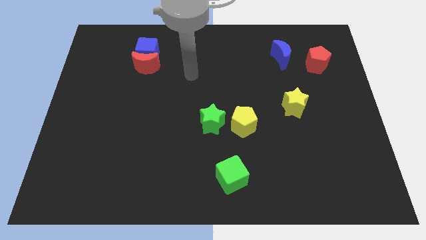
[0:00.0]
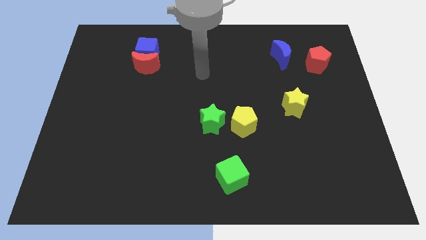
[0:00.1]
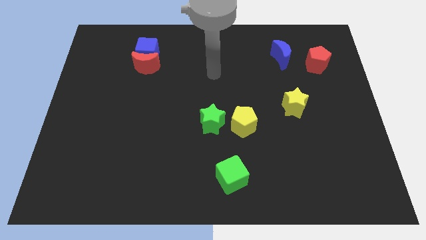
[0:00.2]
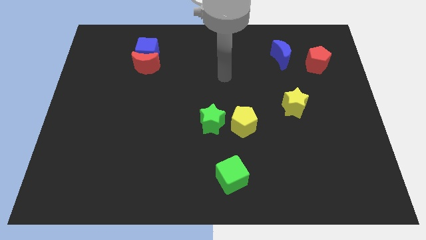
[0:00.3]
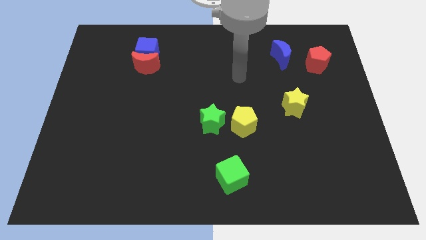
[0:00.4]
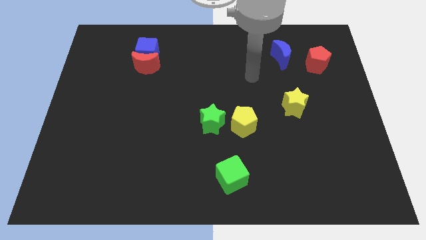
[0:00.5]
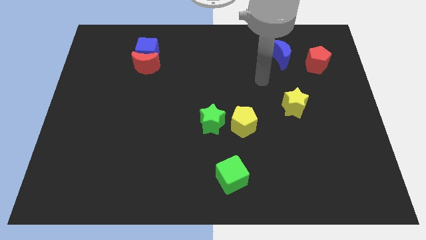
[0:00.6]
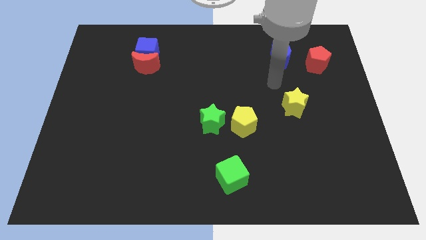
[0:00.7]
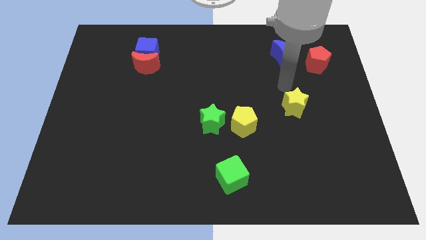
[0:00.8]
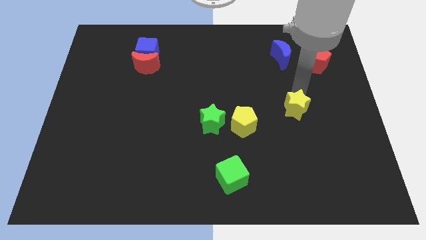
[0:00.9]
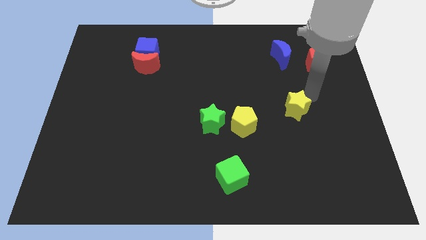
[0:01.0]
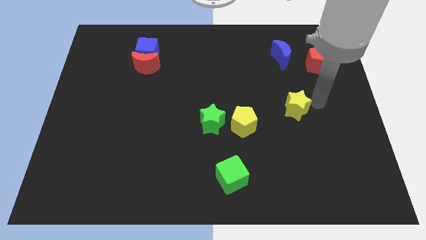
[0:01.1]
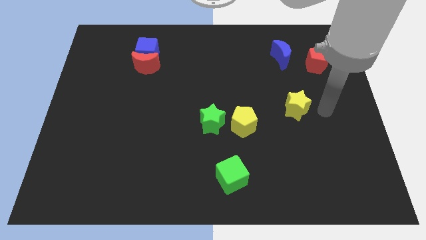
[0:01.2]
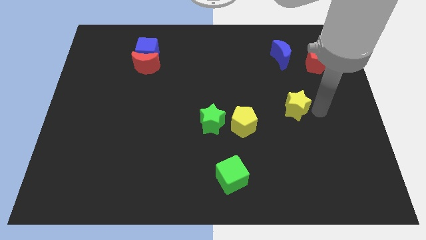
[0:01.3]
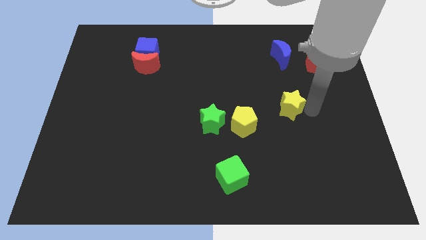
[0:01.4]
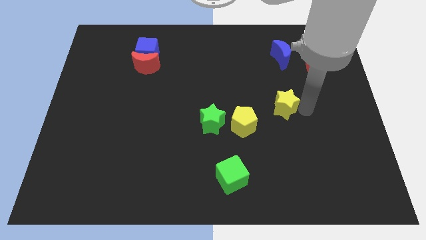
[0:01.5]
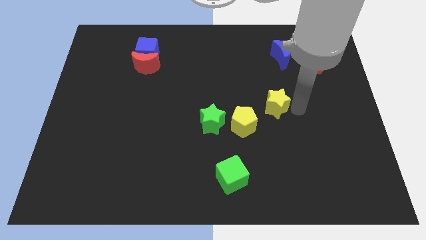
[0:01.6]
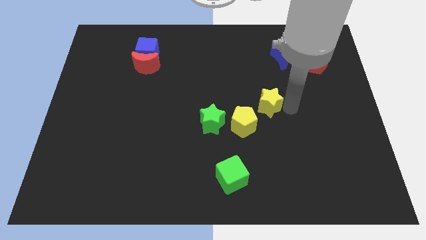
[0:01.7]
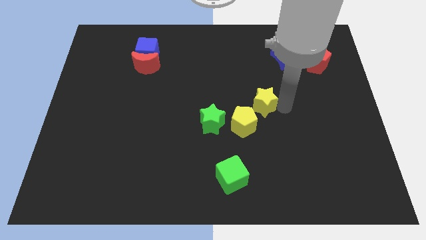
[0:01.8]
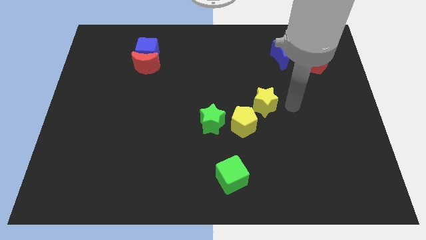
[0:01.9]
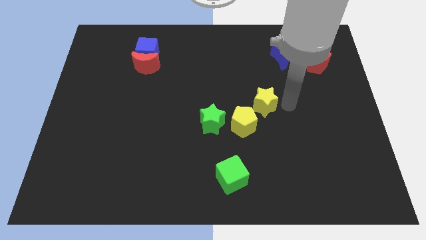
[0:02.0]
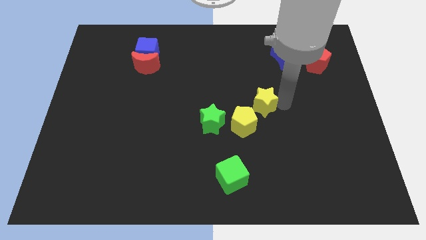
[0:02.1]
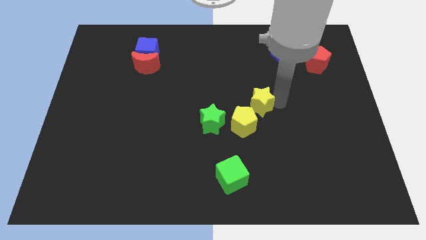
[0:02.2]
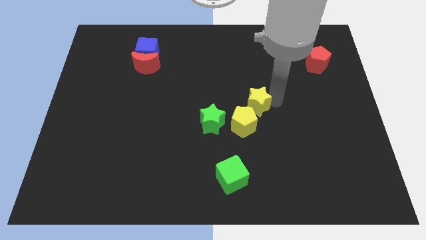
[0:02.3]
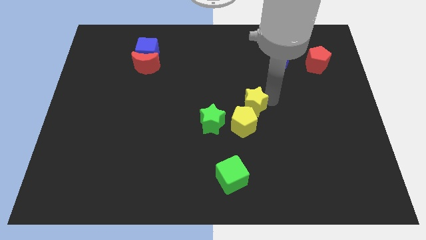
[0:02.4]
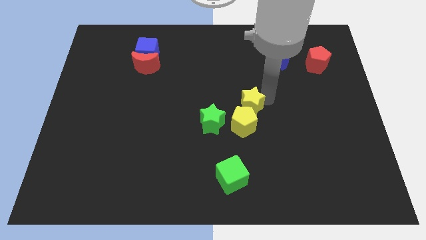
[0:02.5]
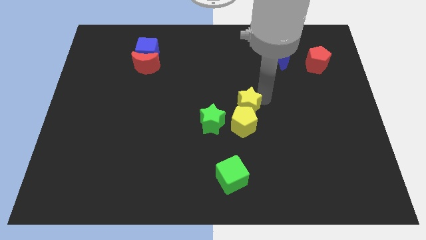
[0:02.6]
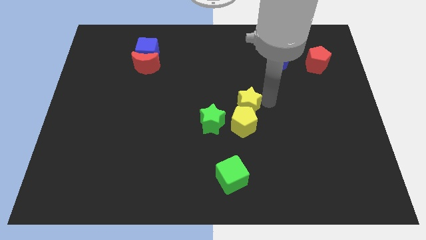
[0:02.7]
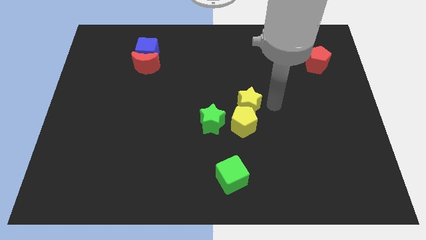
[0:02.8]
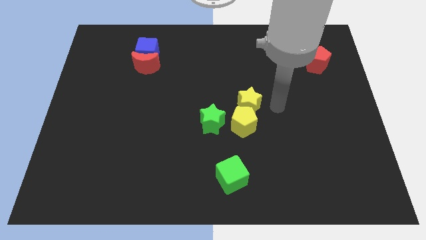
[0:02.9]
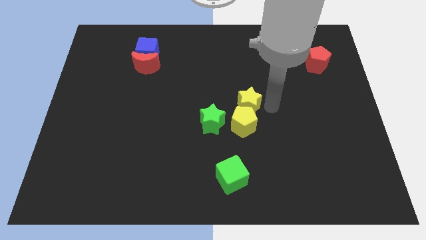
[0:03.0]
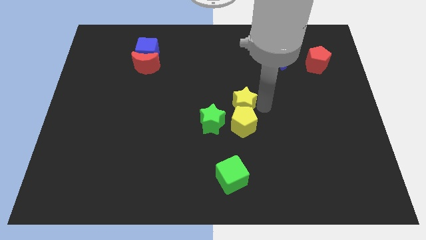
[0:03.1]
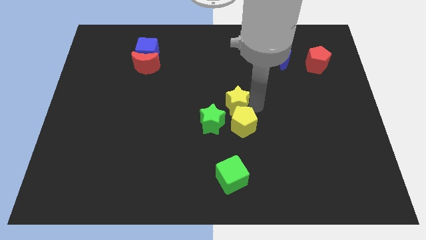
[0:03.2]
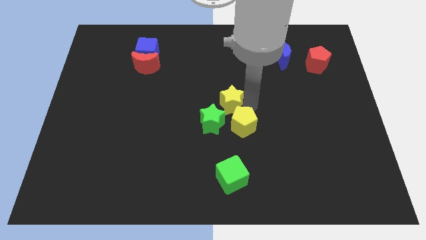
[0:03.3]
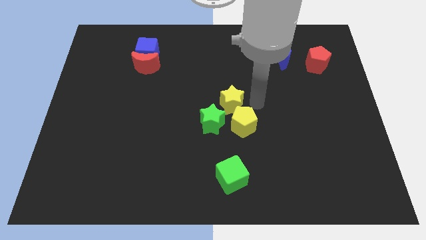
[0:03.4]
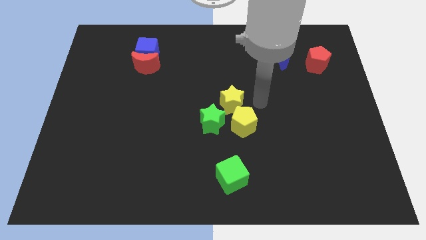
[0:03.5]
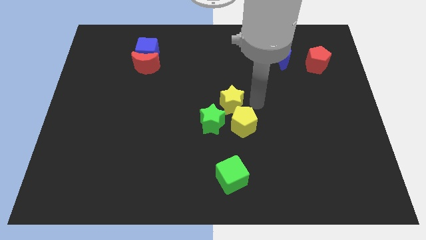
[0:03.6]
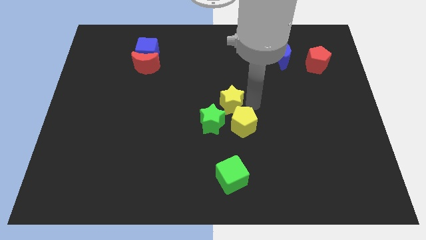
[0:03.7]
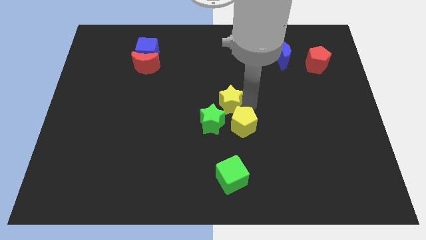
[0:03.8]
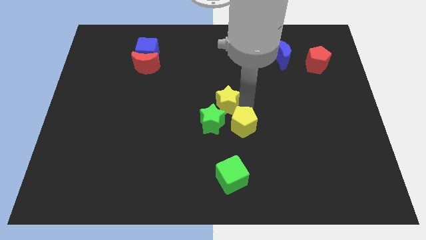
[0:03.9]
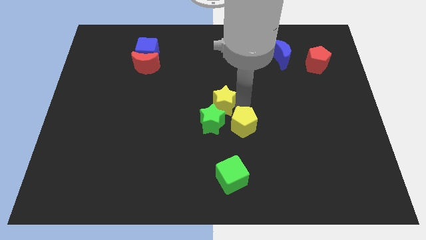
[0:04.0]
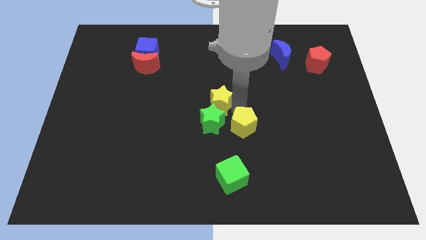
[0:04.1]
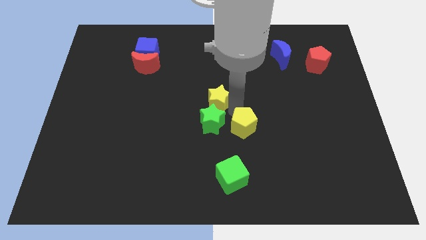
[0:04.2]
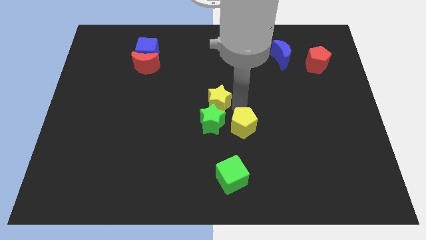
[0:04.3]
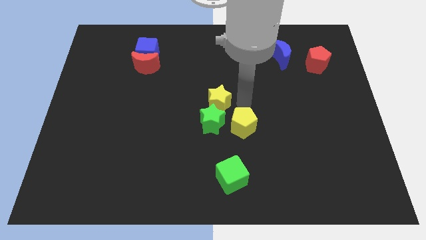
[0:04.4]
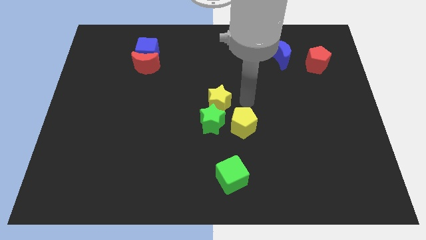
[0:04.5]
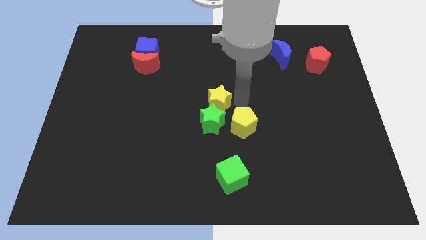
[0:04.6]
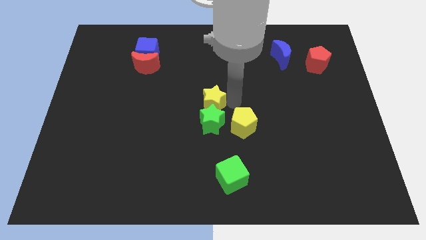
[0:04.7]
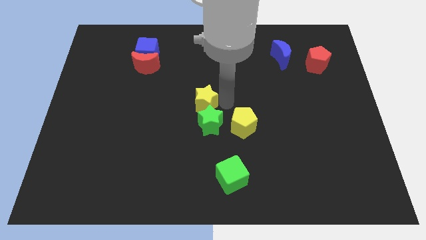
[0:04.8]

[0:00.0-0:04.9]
slide the yellow star left

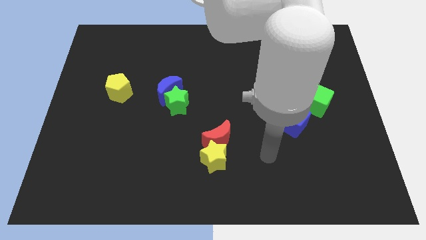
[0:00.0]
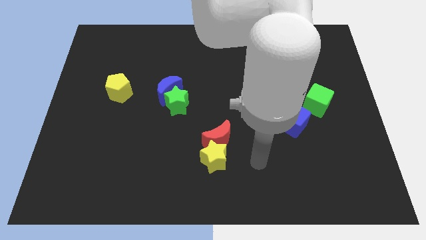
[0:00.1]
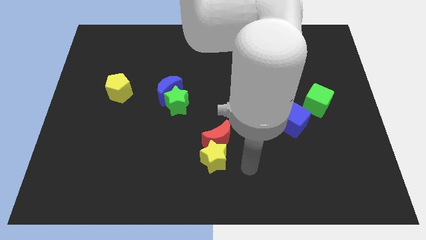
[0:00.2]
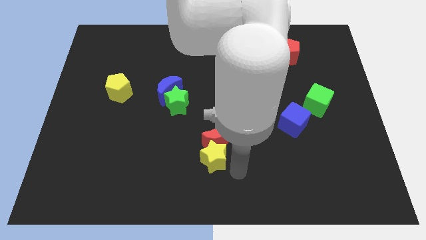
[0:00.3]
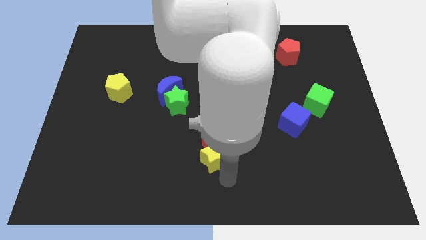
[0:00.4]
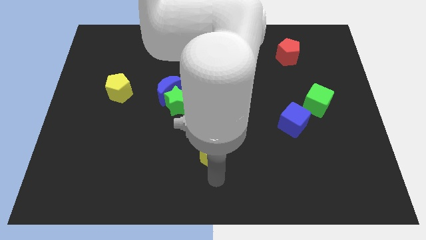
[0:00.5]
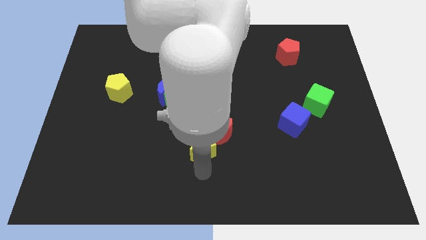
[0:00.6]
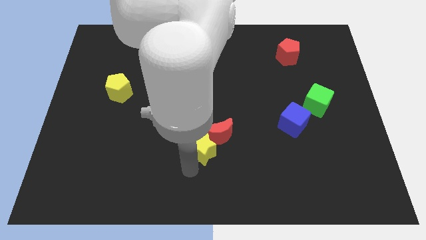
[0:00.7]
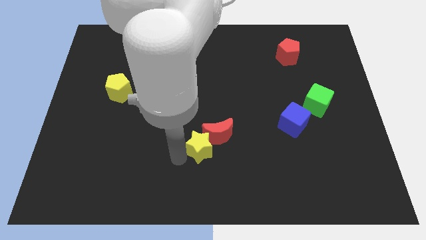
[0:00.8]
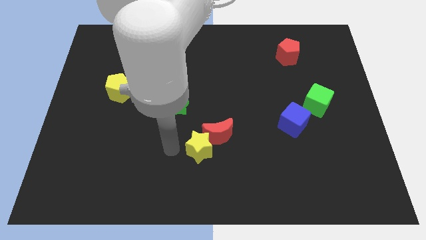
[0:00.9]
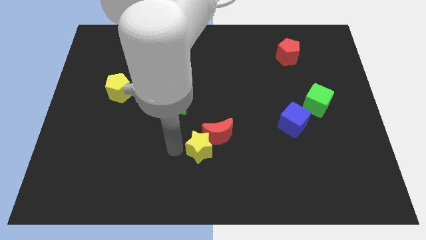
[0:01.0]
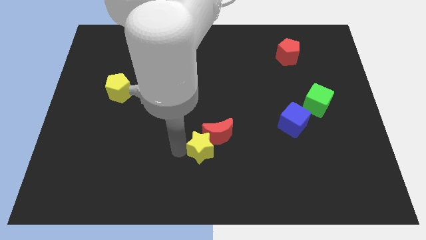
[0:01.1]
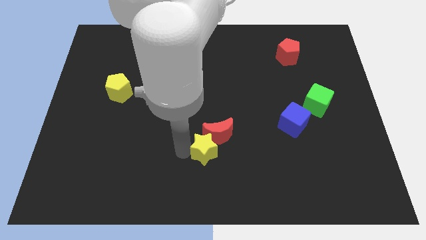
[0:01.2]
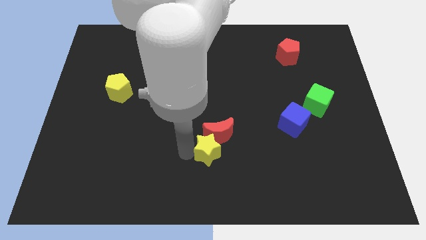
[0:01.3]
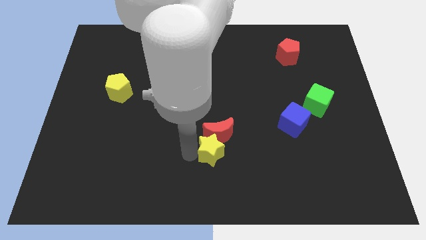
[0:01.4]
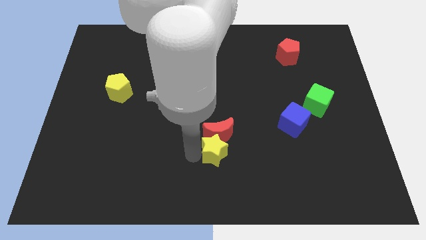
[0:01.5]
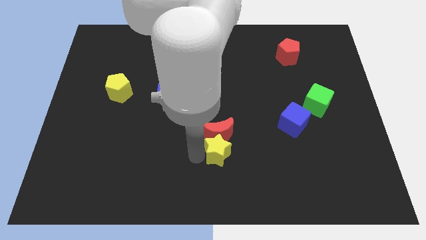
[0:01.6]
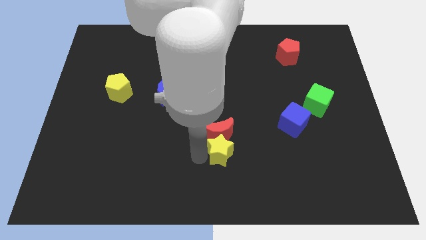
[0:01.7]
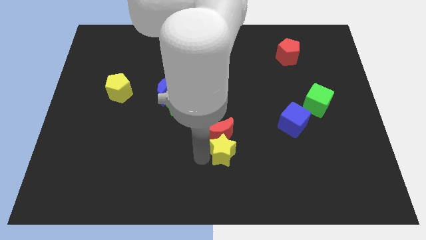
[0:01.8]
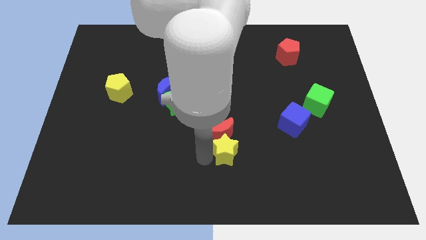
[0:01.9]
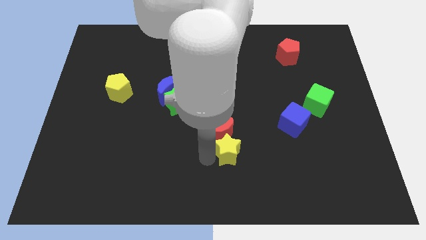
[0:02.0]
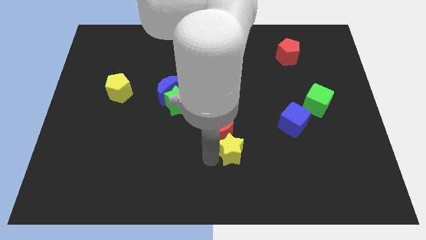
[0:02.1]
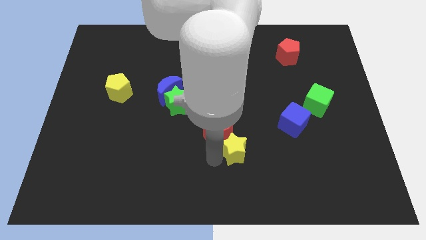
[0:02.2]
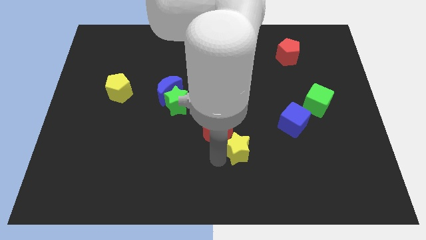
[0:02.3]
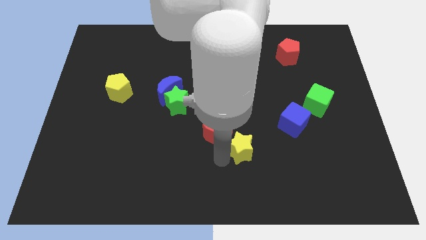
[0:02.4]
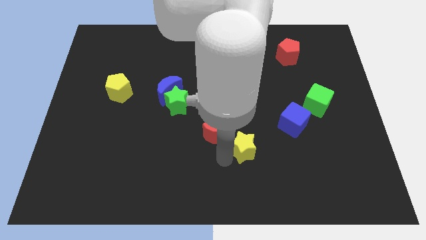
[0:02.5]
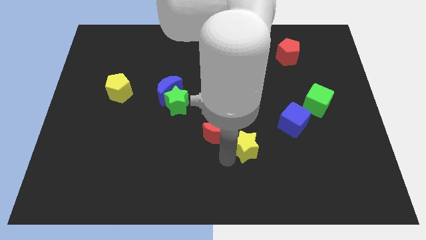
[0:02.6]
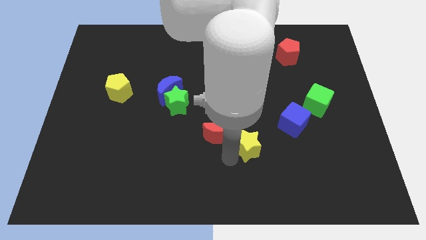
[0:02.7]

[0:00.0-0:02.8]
push the yellow star up and then to the right a bit

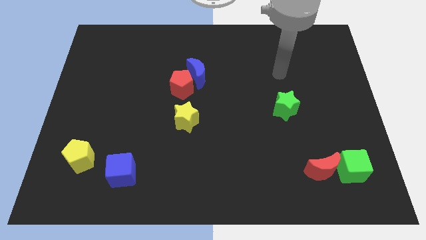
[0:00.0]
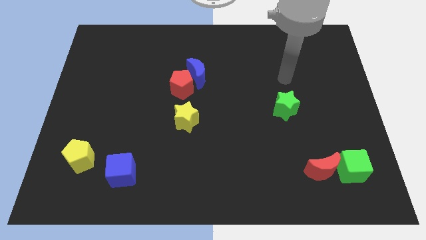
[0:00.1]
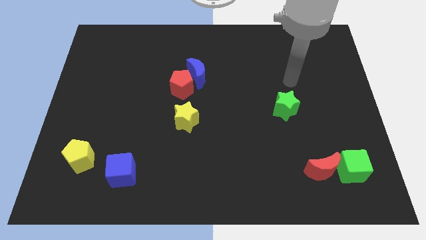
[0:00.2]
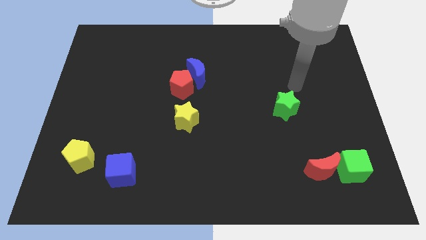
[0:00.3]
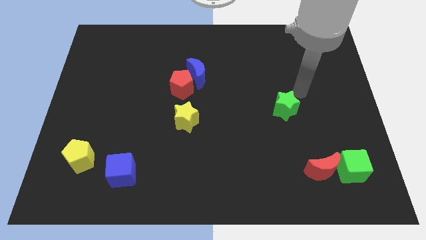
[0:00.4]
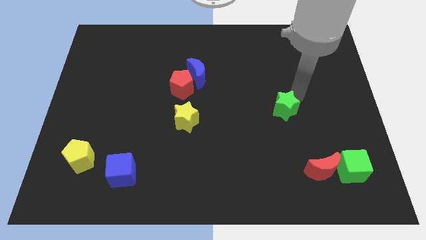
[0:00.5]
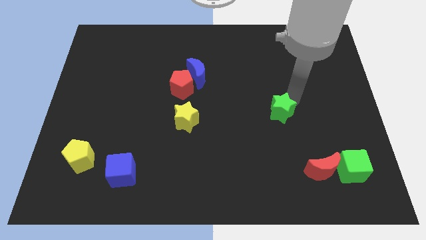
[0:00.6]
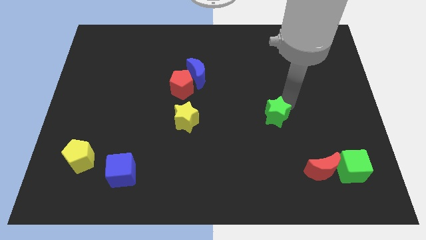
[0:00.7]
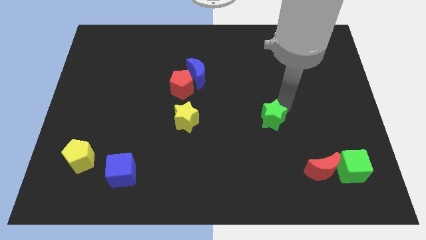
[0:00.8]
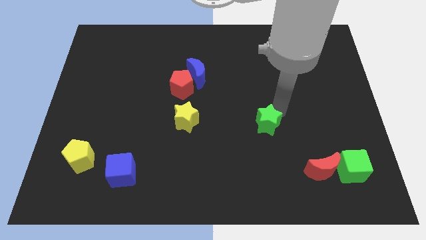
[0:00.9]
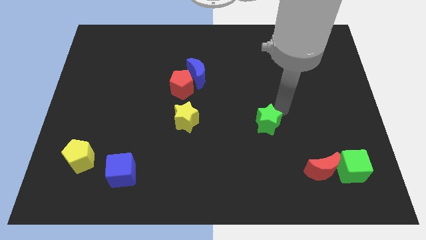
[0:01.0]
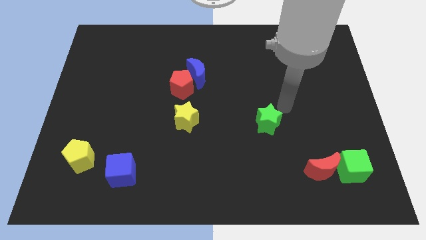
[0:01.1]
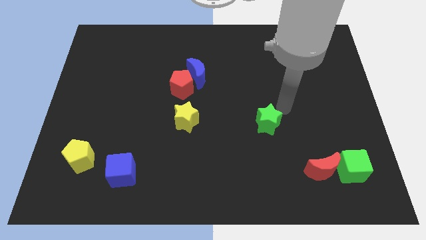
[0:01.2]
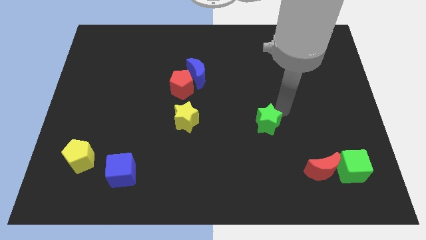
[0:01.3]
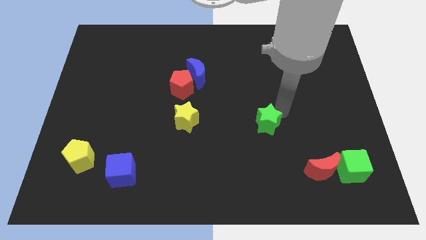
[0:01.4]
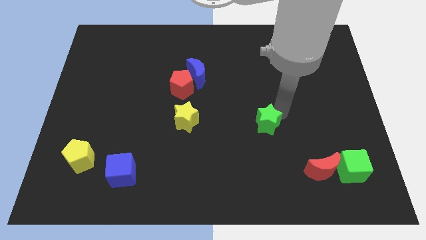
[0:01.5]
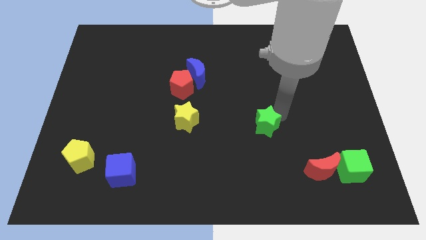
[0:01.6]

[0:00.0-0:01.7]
slightly move the green star downwards and then to the left
